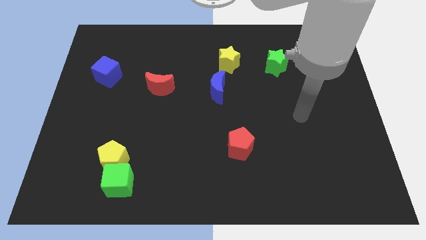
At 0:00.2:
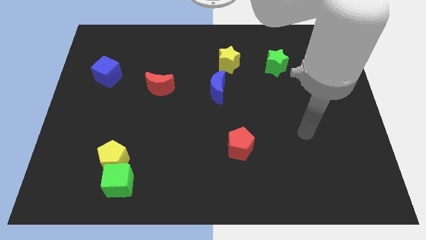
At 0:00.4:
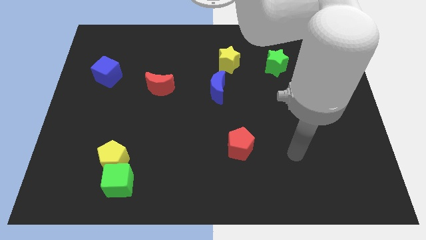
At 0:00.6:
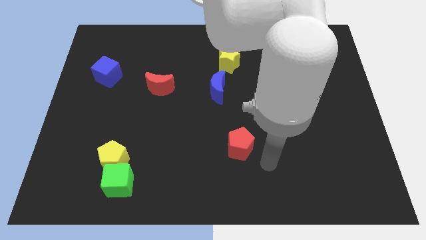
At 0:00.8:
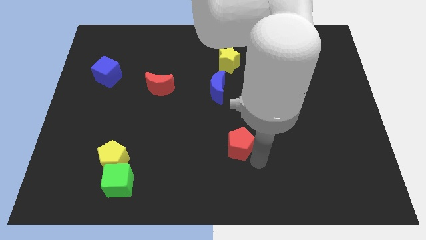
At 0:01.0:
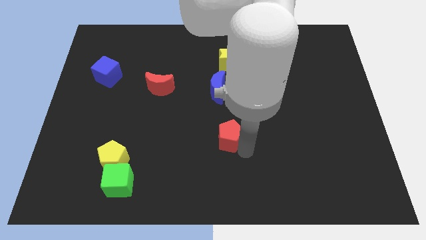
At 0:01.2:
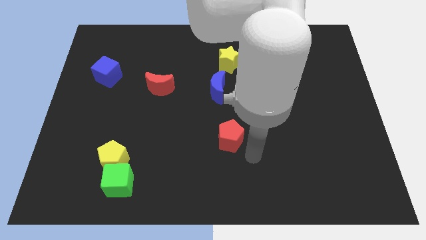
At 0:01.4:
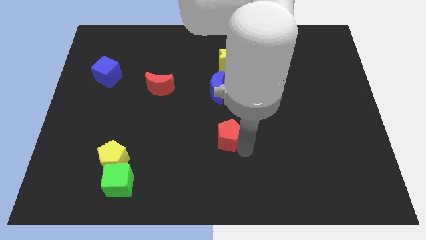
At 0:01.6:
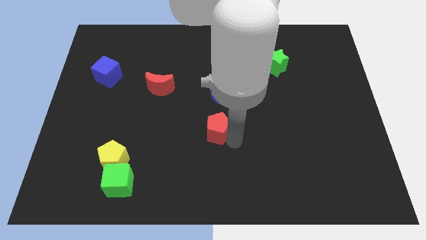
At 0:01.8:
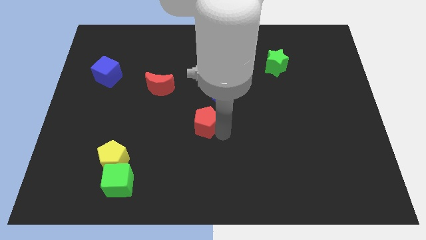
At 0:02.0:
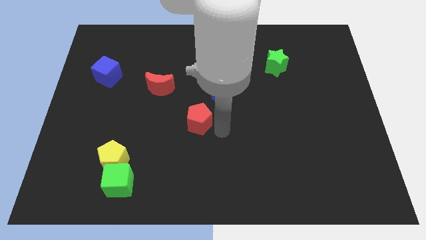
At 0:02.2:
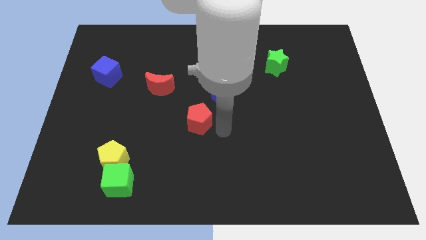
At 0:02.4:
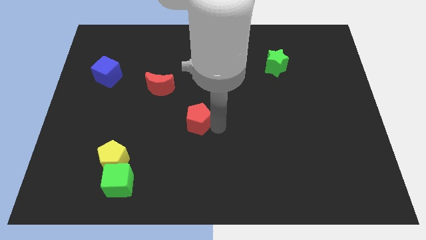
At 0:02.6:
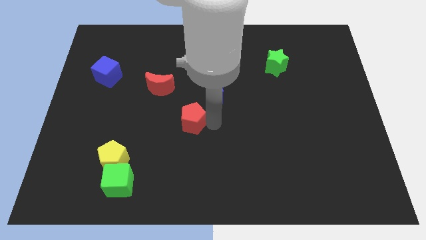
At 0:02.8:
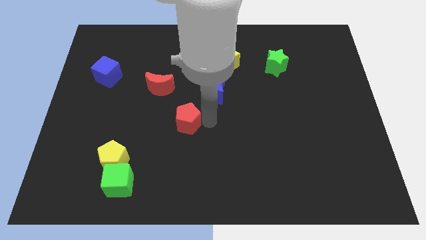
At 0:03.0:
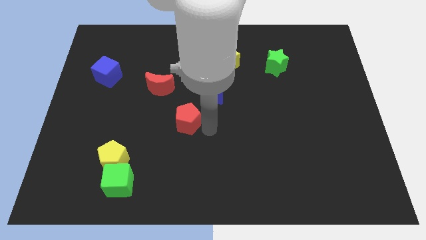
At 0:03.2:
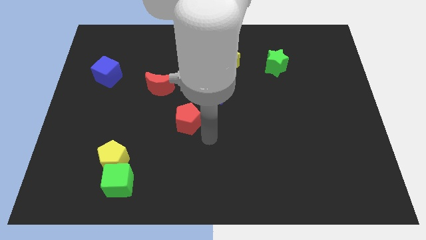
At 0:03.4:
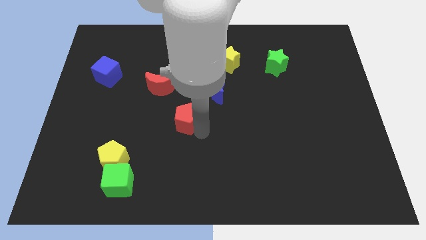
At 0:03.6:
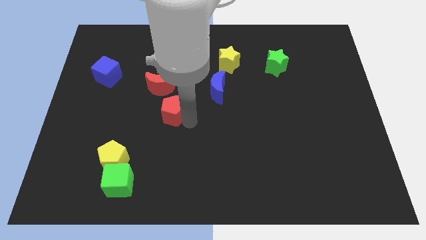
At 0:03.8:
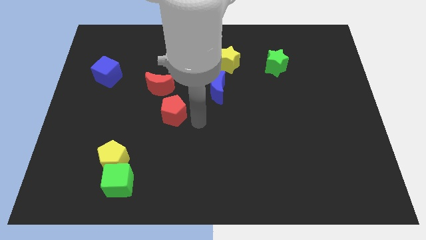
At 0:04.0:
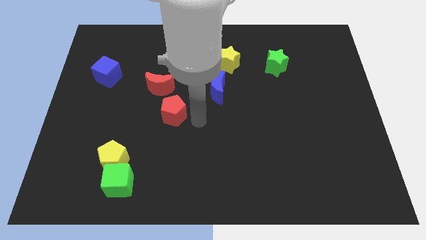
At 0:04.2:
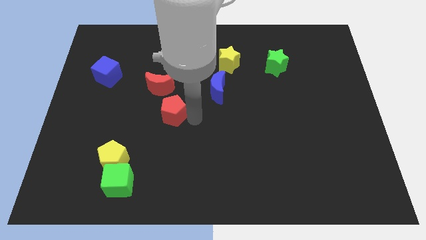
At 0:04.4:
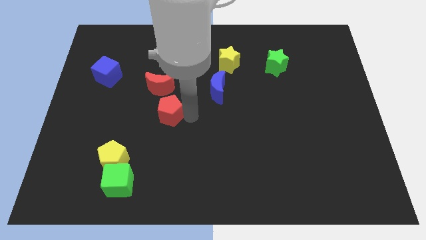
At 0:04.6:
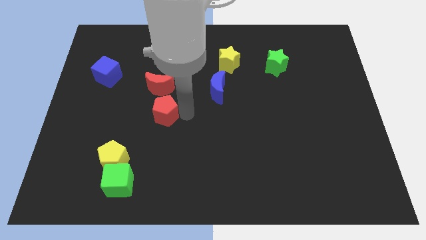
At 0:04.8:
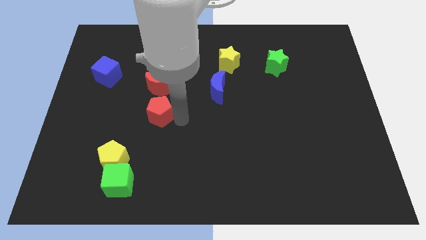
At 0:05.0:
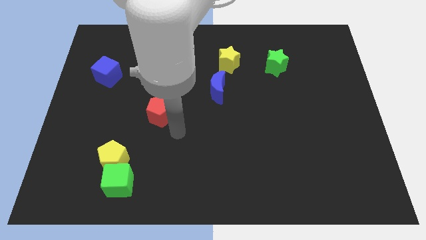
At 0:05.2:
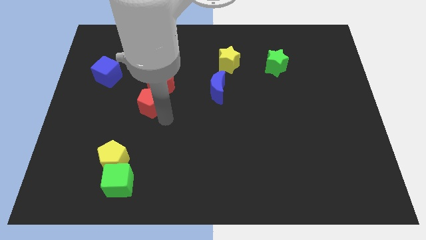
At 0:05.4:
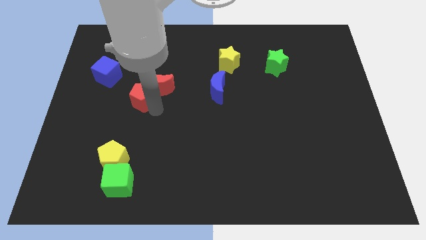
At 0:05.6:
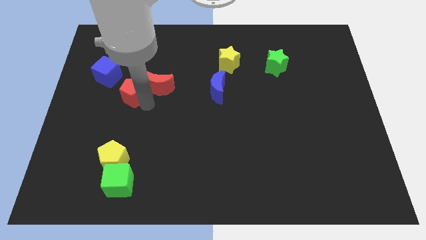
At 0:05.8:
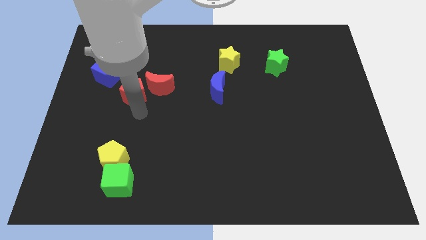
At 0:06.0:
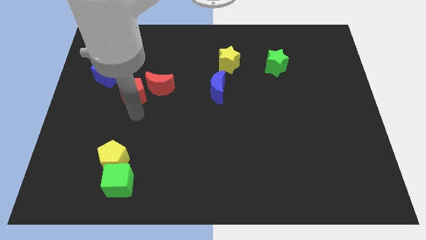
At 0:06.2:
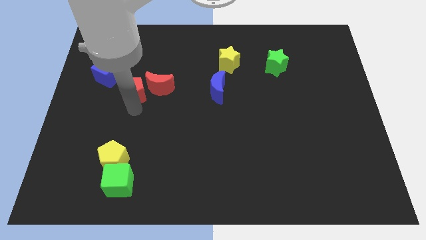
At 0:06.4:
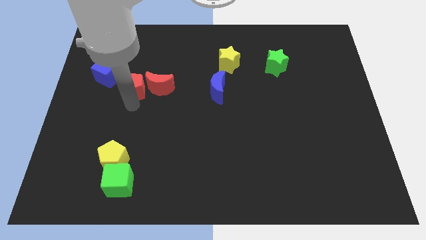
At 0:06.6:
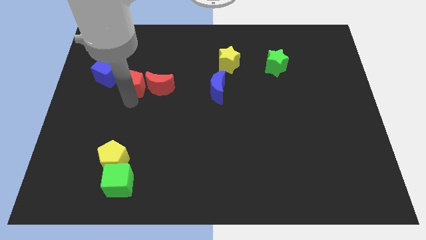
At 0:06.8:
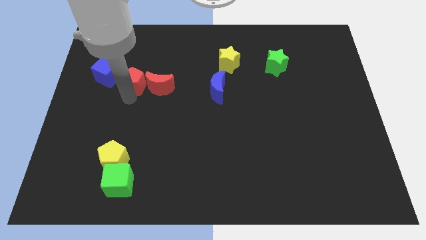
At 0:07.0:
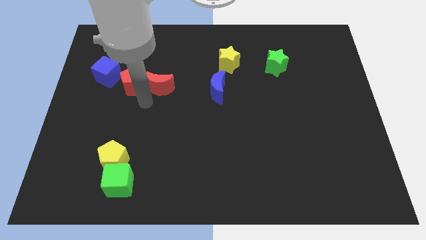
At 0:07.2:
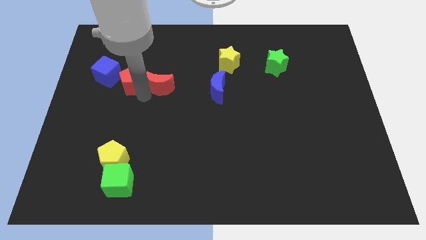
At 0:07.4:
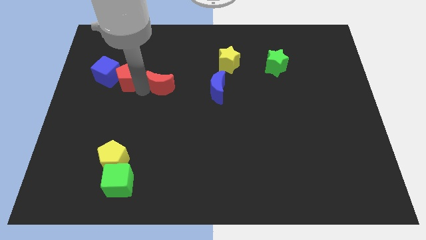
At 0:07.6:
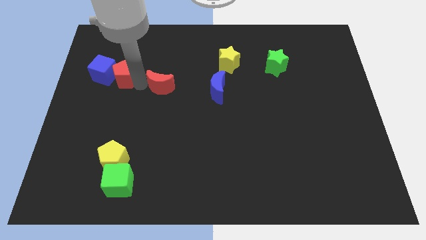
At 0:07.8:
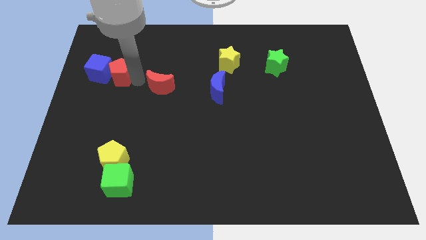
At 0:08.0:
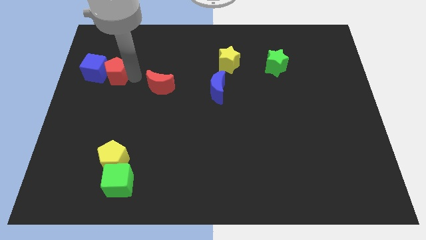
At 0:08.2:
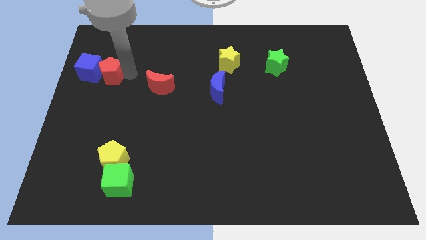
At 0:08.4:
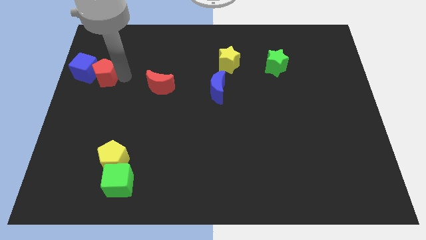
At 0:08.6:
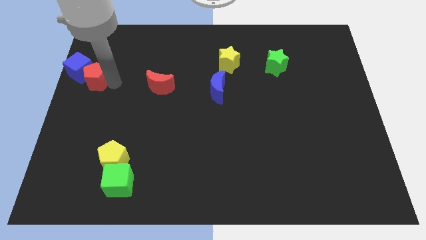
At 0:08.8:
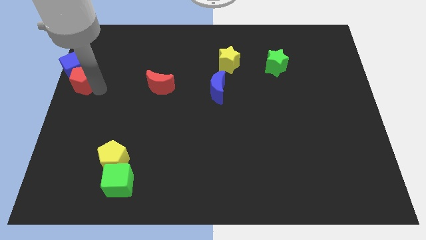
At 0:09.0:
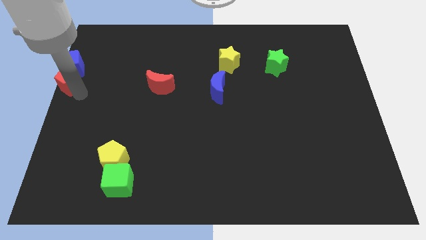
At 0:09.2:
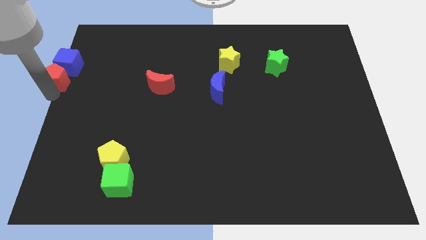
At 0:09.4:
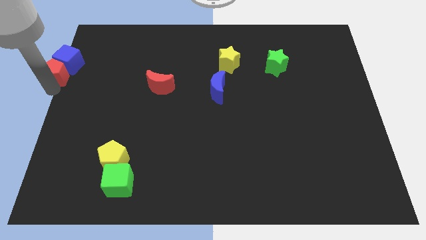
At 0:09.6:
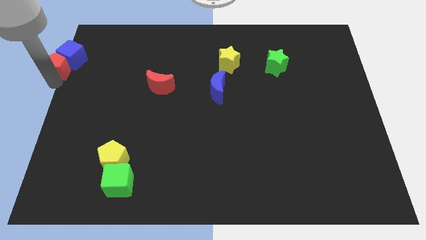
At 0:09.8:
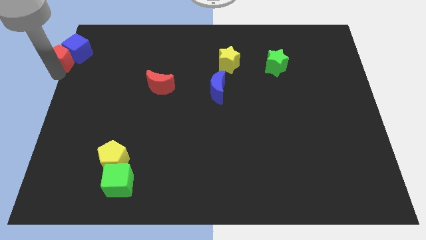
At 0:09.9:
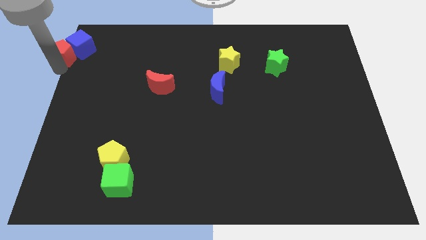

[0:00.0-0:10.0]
put the red pentagon to the upper left corner

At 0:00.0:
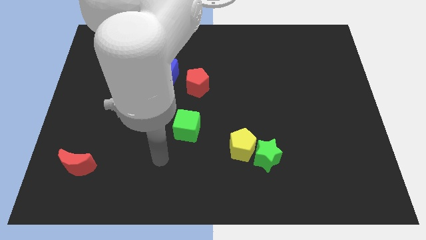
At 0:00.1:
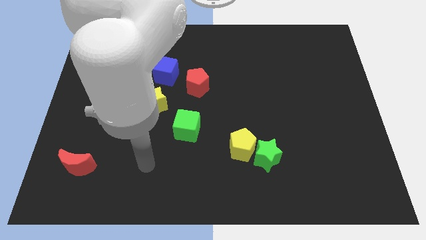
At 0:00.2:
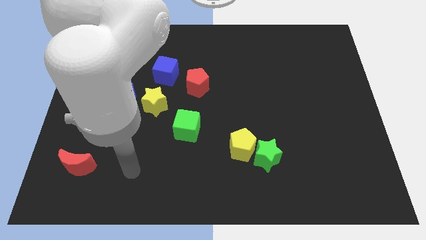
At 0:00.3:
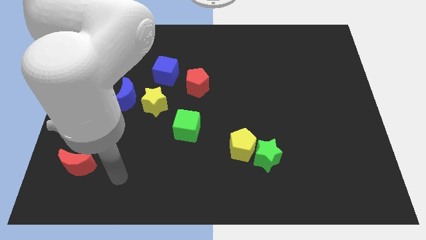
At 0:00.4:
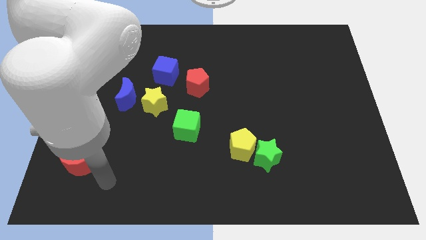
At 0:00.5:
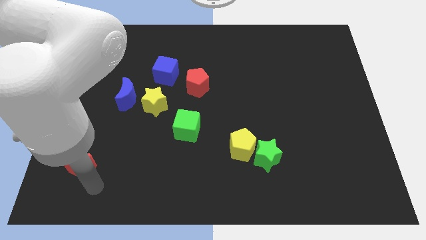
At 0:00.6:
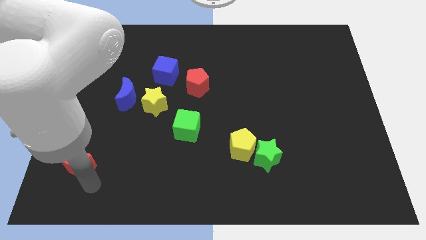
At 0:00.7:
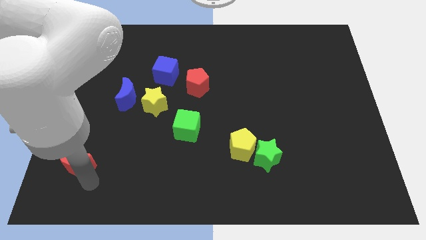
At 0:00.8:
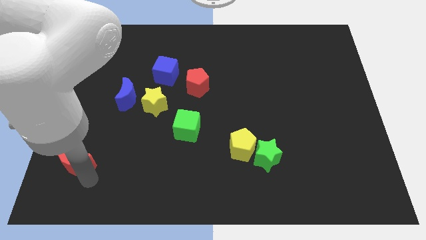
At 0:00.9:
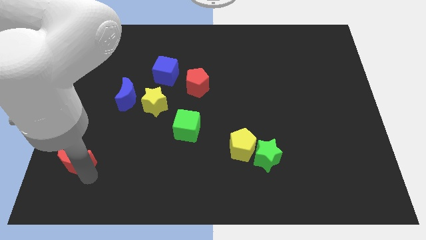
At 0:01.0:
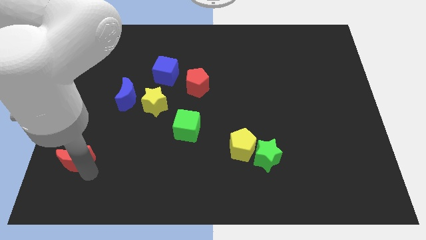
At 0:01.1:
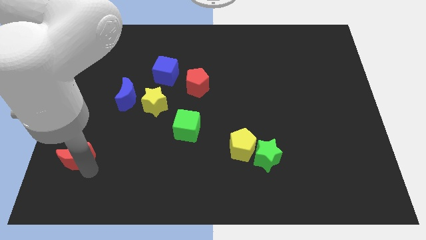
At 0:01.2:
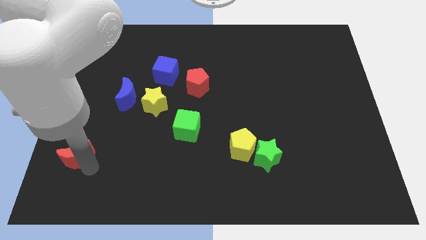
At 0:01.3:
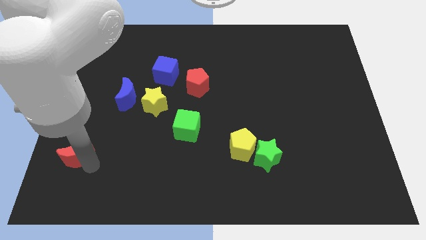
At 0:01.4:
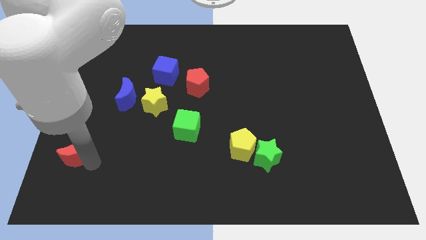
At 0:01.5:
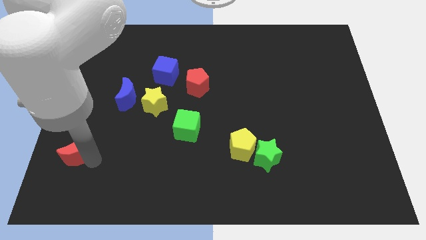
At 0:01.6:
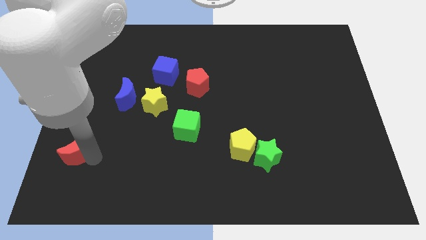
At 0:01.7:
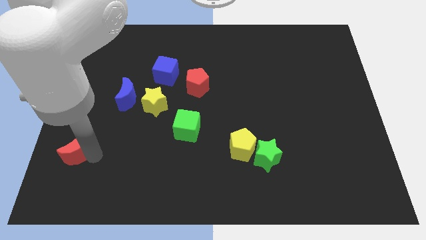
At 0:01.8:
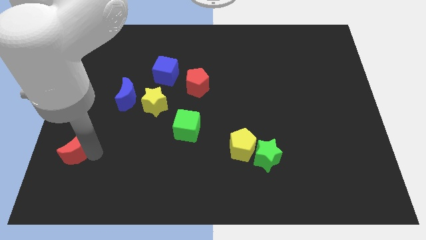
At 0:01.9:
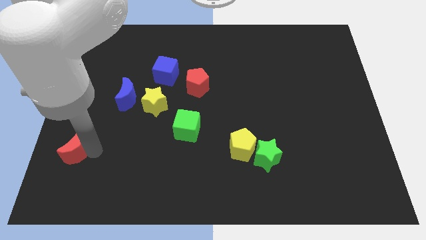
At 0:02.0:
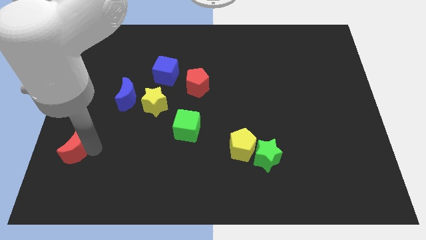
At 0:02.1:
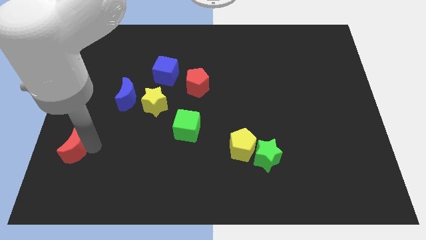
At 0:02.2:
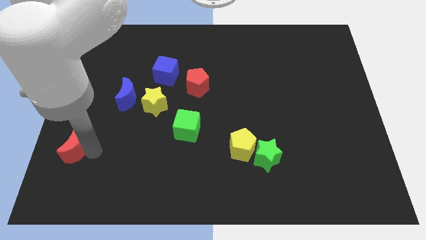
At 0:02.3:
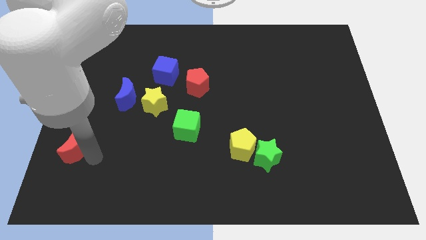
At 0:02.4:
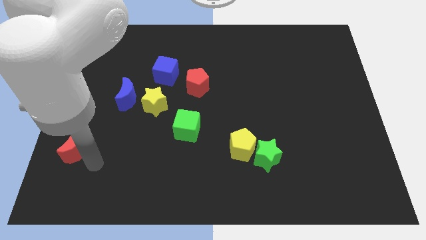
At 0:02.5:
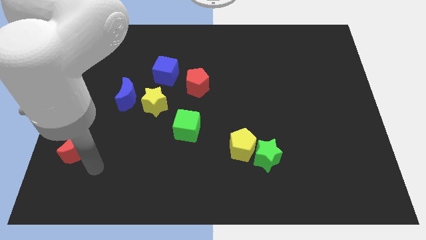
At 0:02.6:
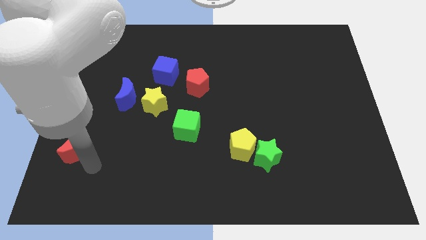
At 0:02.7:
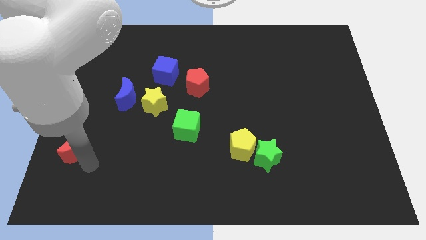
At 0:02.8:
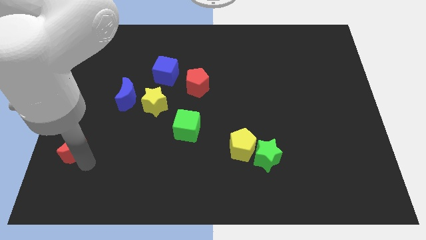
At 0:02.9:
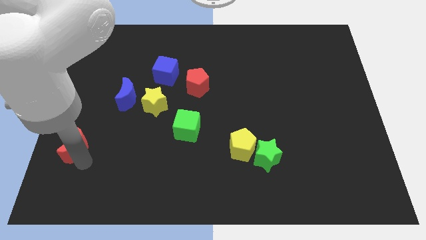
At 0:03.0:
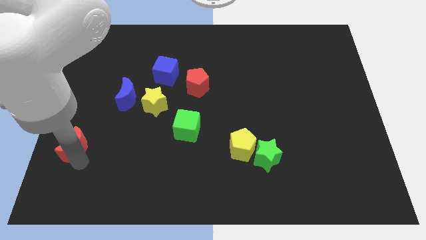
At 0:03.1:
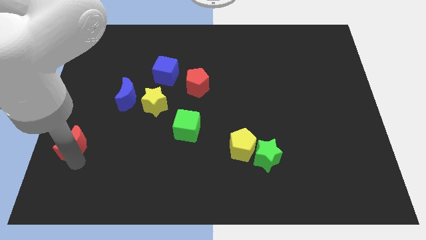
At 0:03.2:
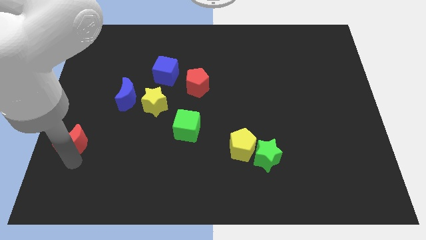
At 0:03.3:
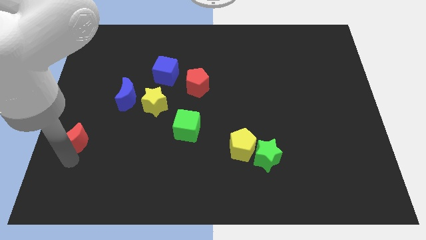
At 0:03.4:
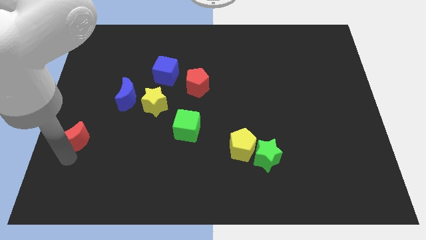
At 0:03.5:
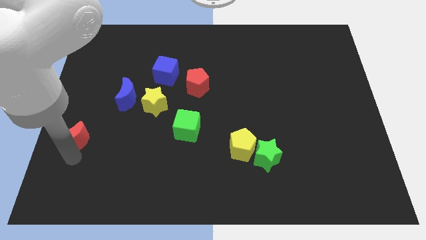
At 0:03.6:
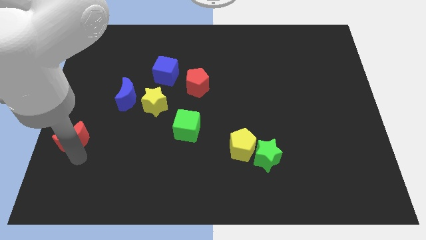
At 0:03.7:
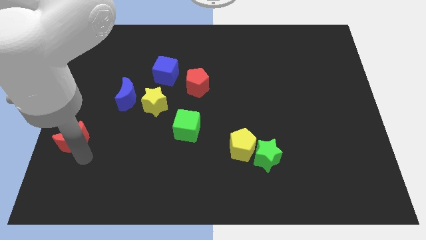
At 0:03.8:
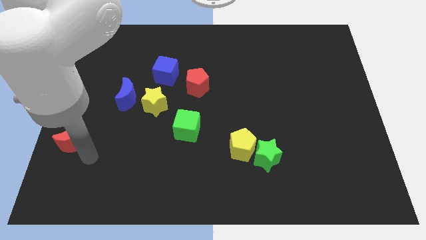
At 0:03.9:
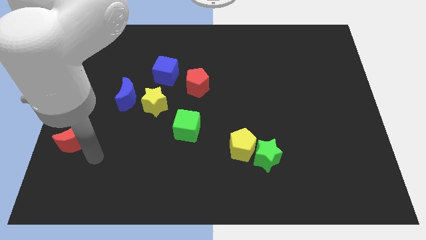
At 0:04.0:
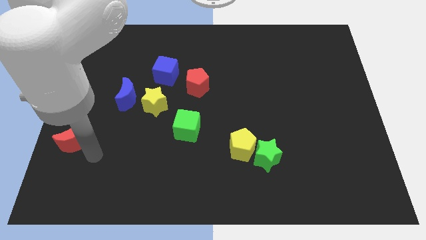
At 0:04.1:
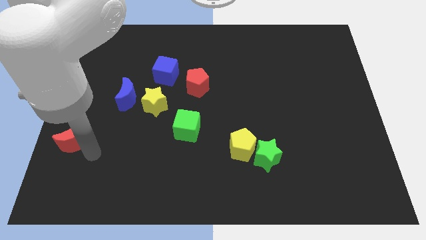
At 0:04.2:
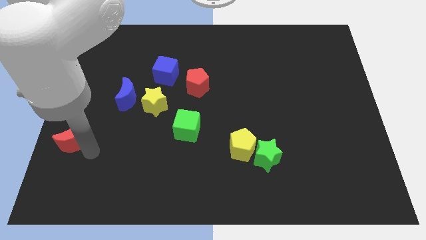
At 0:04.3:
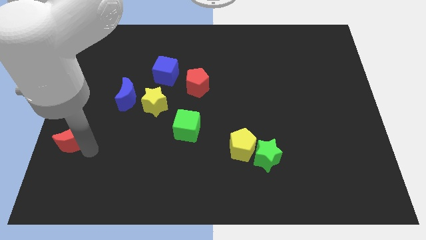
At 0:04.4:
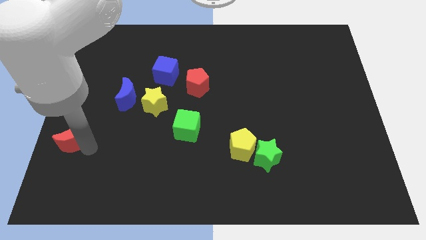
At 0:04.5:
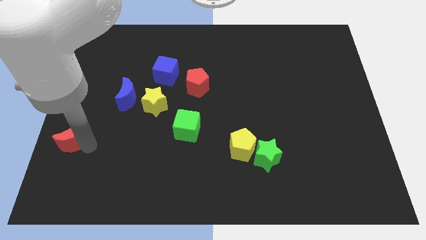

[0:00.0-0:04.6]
put the red moon to the left side of the board
